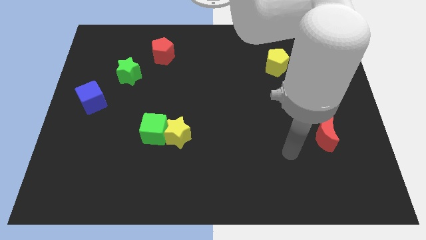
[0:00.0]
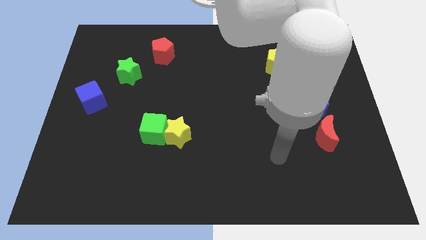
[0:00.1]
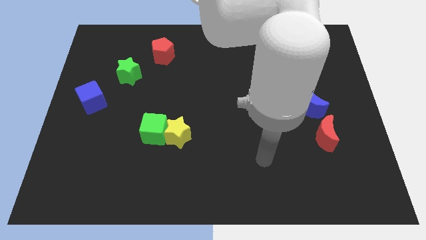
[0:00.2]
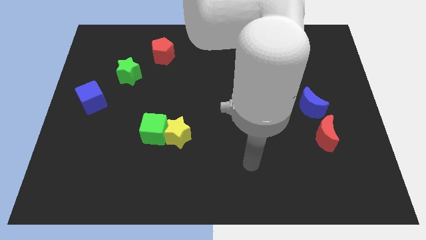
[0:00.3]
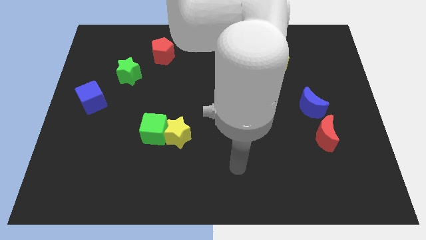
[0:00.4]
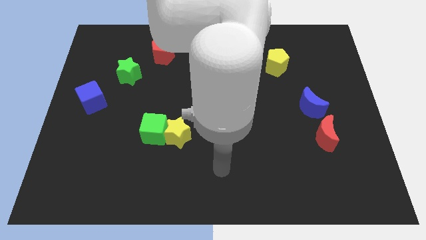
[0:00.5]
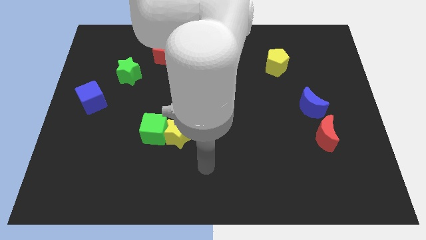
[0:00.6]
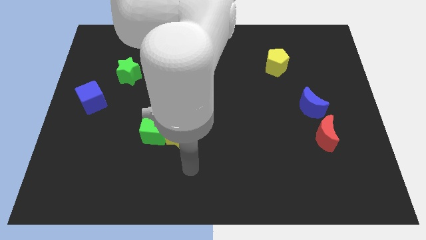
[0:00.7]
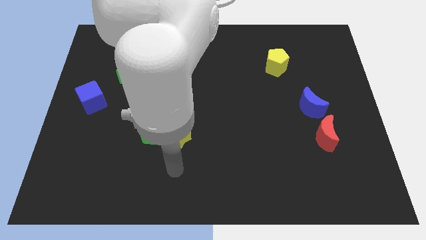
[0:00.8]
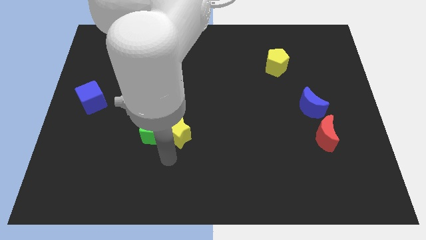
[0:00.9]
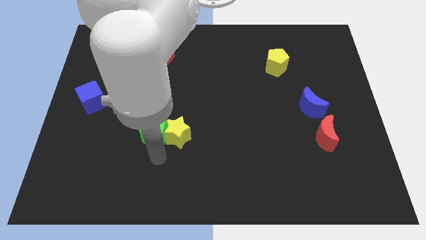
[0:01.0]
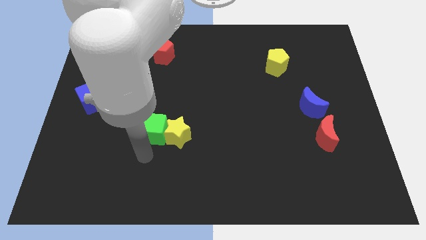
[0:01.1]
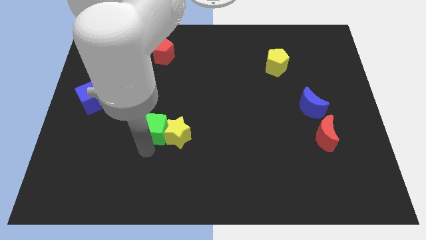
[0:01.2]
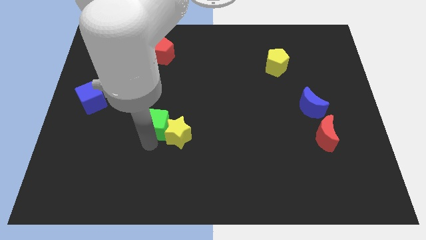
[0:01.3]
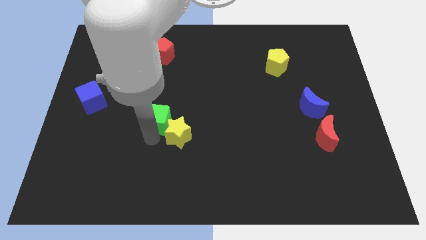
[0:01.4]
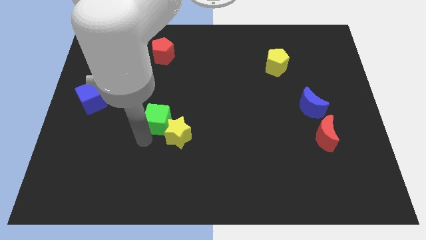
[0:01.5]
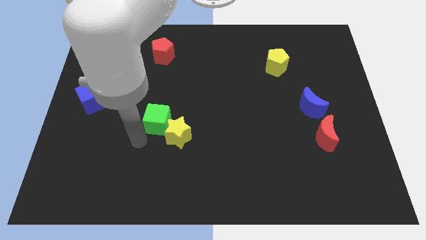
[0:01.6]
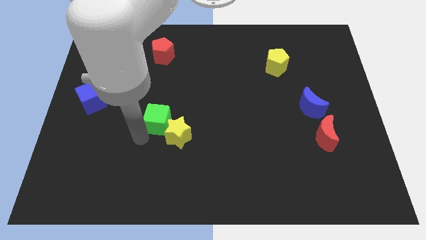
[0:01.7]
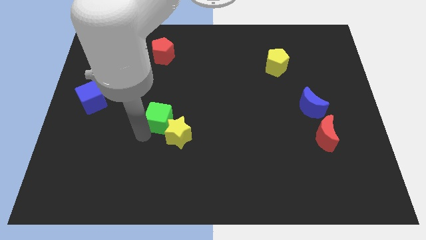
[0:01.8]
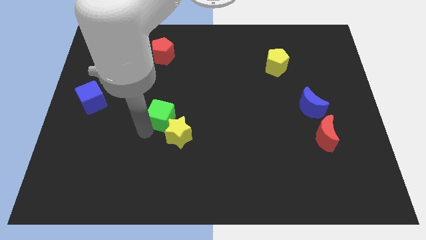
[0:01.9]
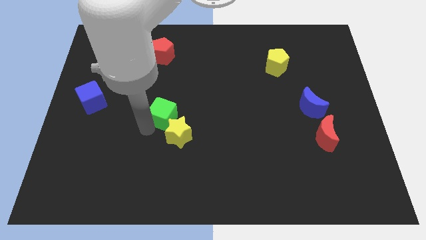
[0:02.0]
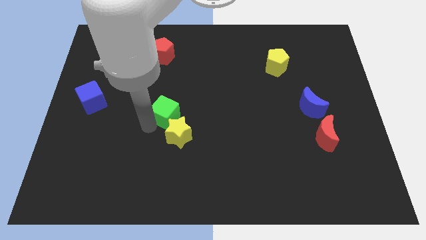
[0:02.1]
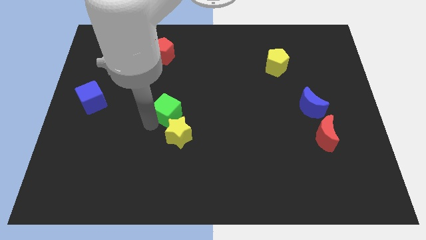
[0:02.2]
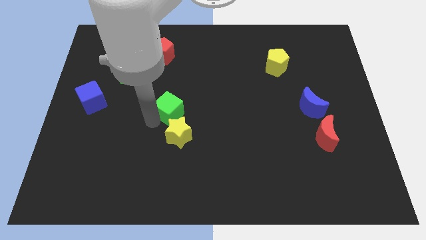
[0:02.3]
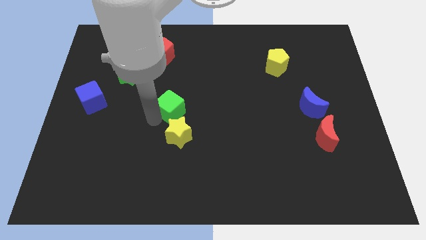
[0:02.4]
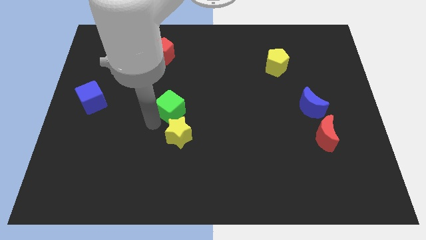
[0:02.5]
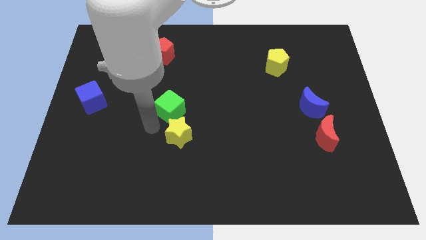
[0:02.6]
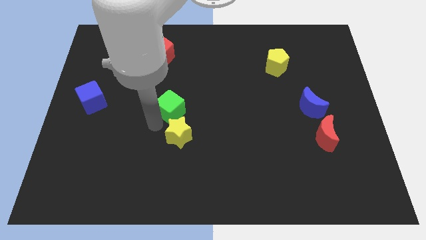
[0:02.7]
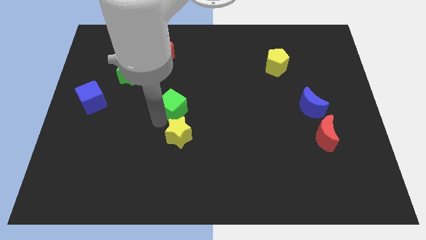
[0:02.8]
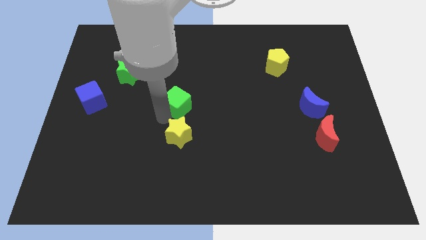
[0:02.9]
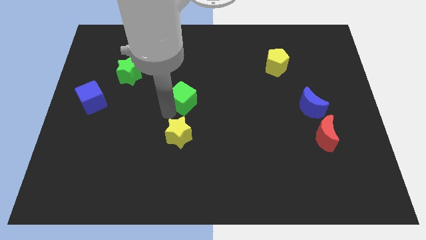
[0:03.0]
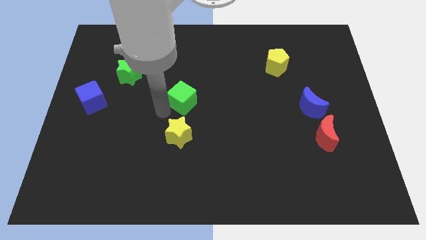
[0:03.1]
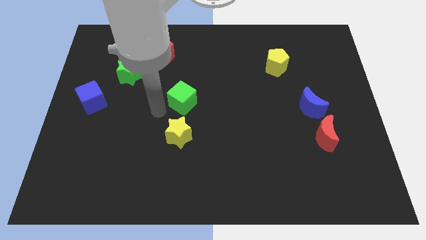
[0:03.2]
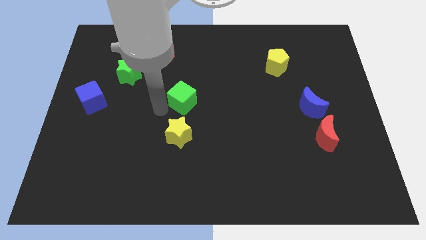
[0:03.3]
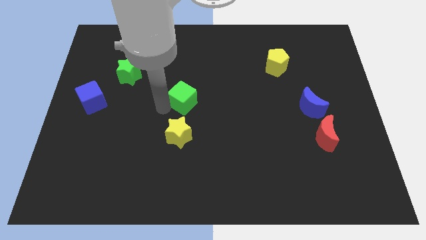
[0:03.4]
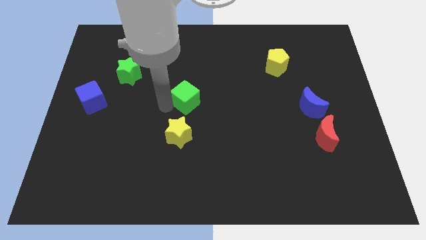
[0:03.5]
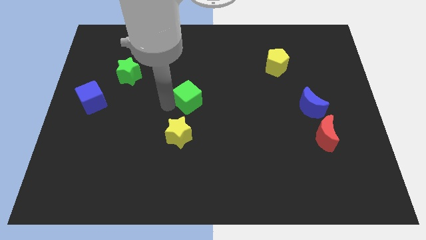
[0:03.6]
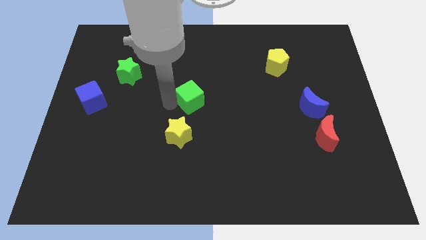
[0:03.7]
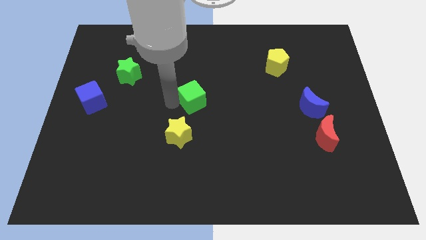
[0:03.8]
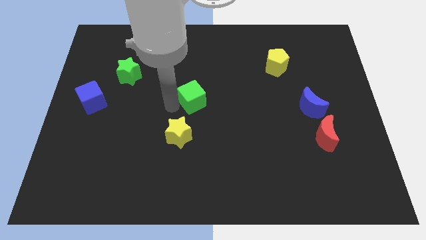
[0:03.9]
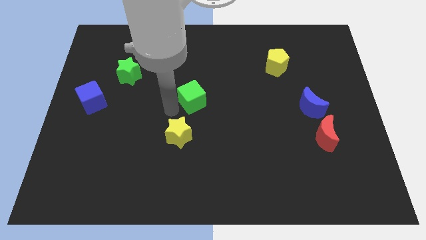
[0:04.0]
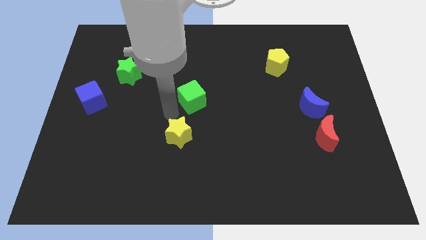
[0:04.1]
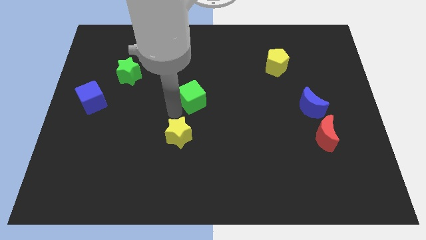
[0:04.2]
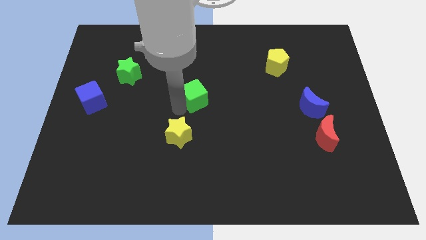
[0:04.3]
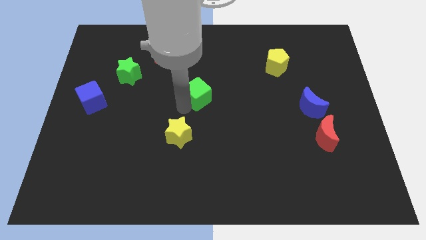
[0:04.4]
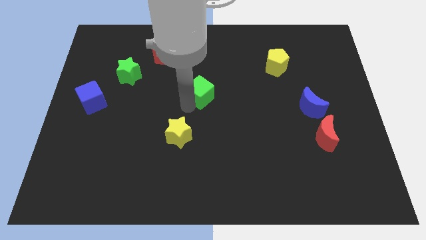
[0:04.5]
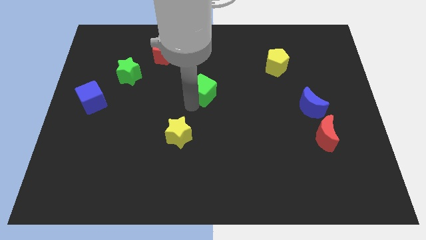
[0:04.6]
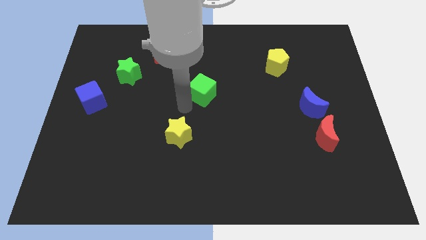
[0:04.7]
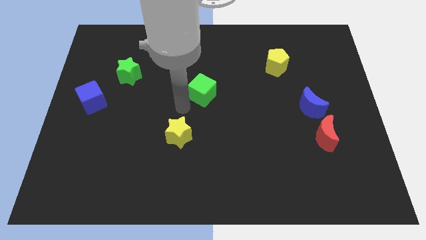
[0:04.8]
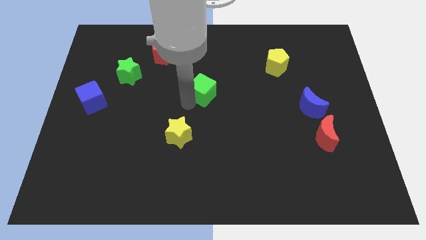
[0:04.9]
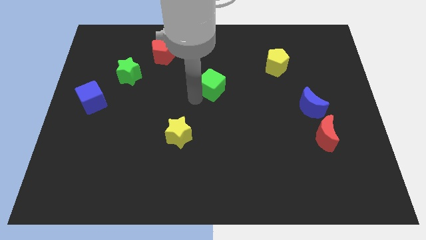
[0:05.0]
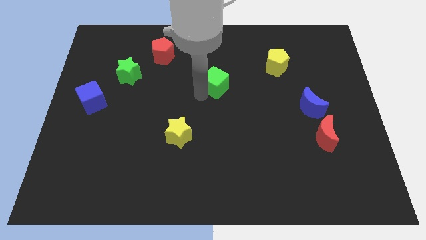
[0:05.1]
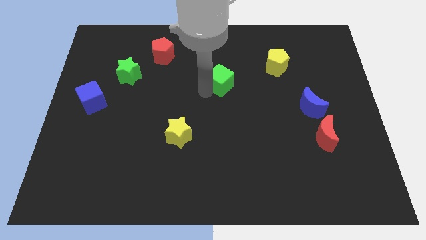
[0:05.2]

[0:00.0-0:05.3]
slide the green cube upwards and right diagonally

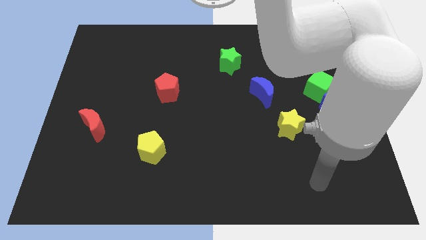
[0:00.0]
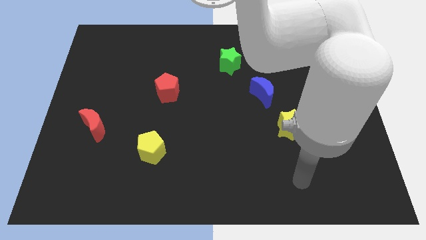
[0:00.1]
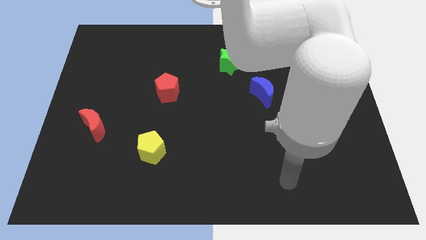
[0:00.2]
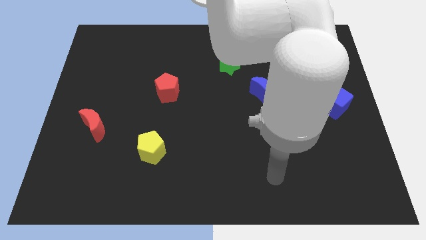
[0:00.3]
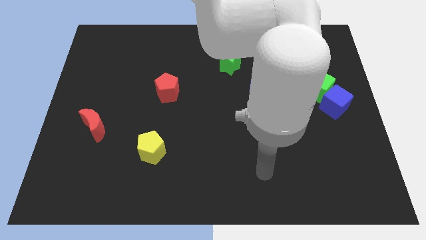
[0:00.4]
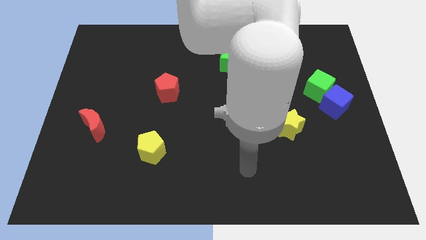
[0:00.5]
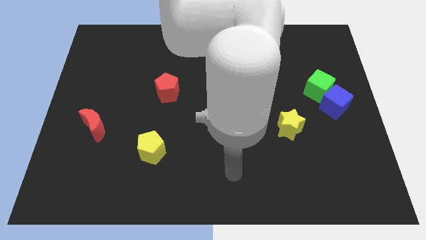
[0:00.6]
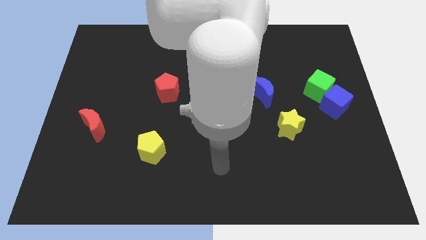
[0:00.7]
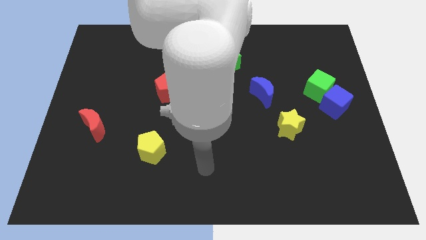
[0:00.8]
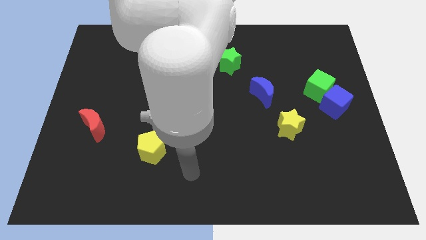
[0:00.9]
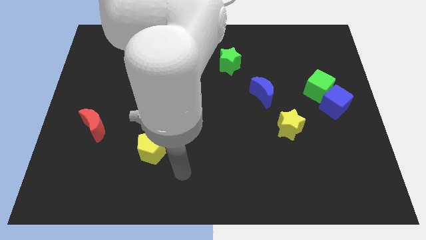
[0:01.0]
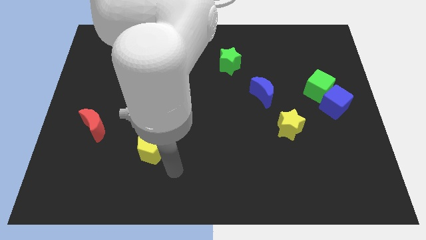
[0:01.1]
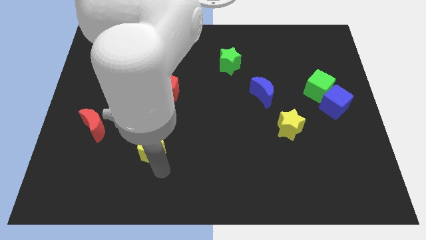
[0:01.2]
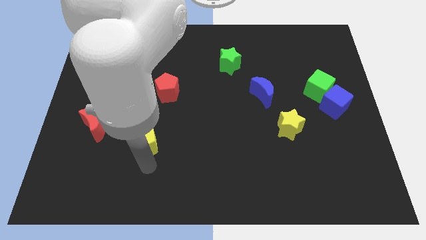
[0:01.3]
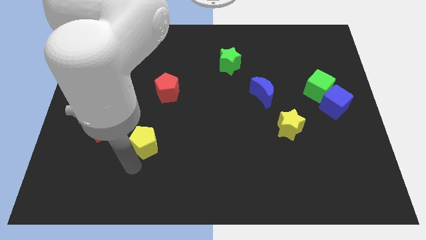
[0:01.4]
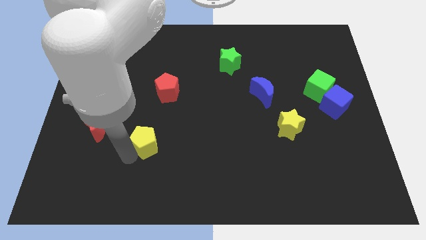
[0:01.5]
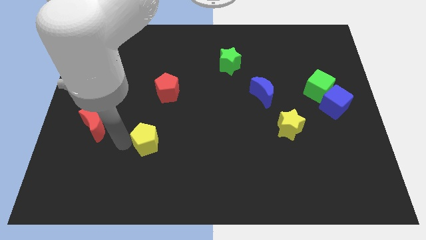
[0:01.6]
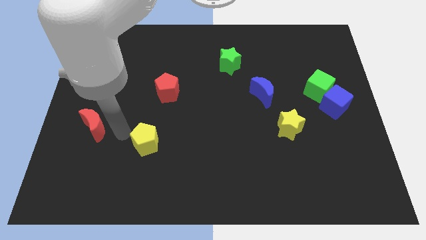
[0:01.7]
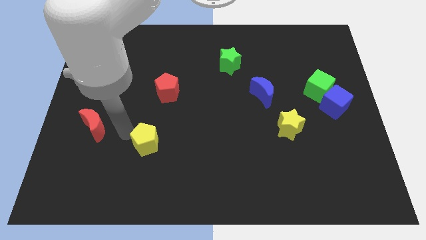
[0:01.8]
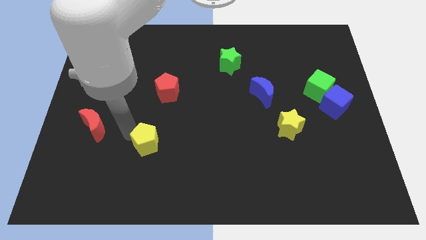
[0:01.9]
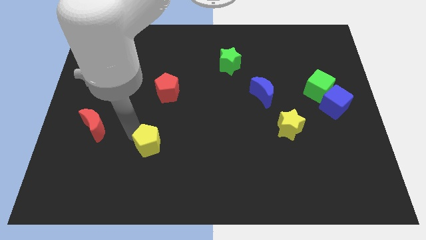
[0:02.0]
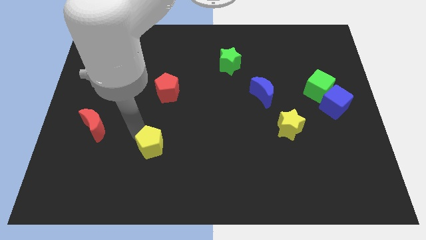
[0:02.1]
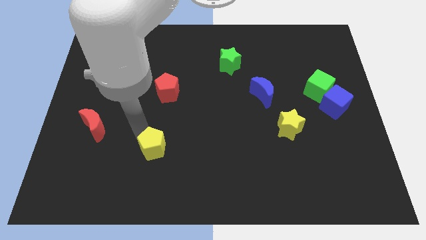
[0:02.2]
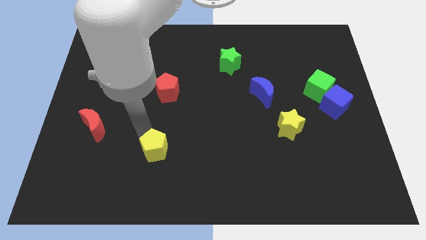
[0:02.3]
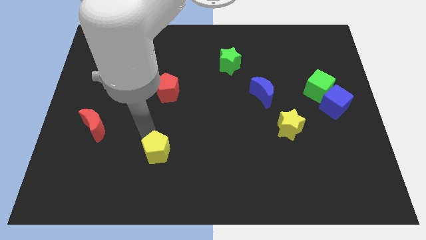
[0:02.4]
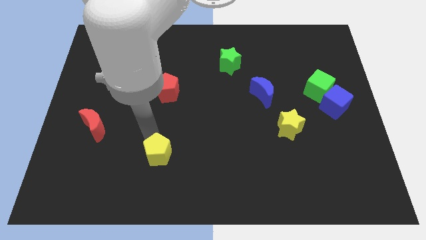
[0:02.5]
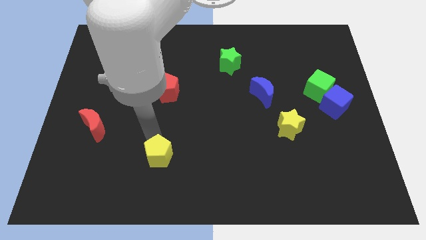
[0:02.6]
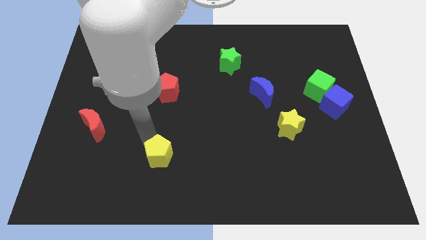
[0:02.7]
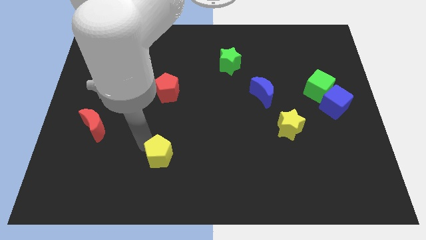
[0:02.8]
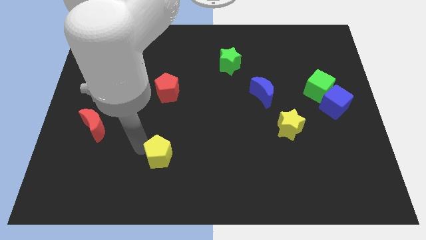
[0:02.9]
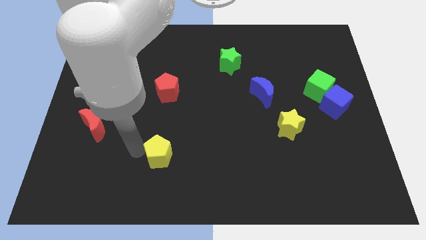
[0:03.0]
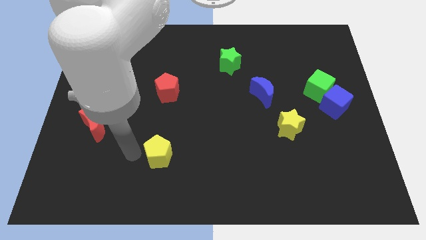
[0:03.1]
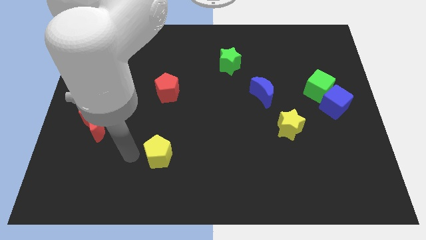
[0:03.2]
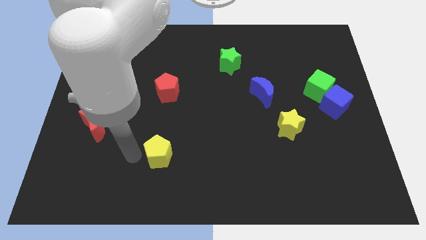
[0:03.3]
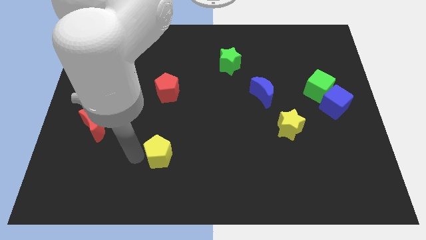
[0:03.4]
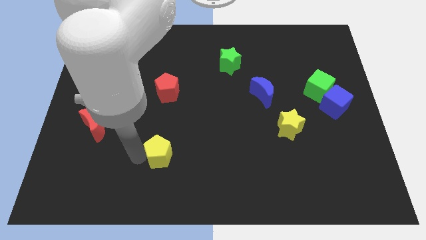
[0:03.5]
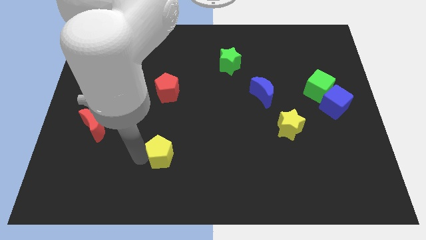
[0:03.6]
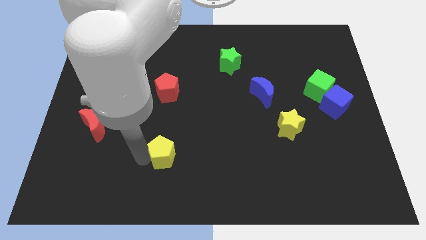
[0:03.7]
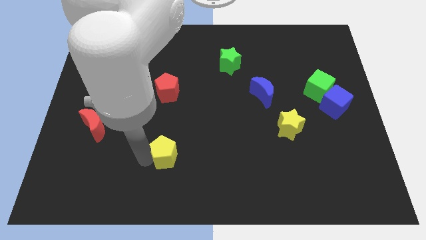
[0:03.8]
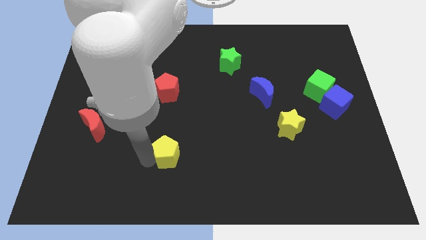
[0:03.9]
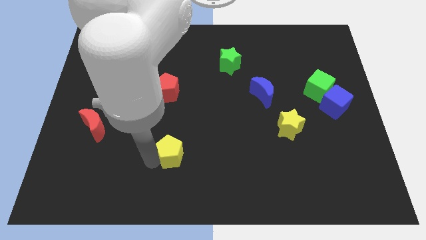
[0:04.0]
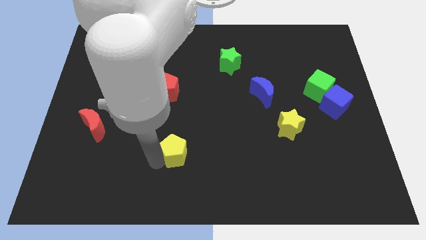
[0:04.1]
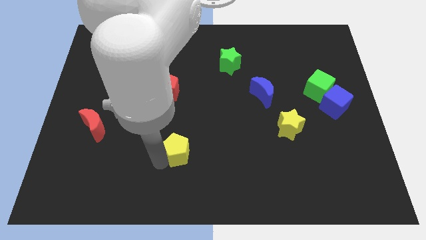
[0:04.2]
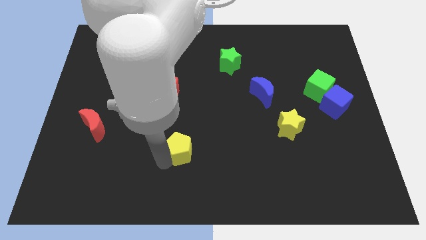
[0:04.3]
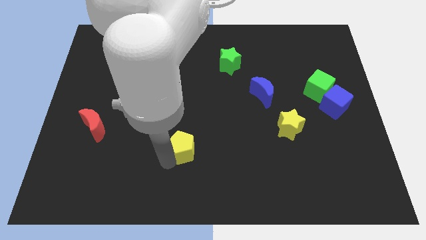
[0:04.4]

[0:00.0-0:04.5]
move the yellow pentagon a little bit to the right
